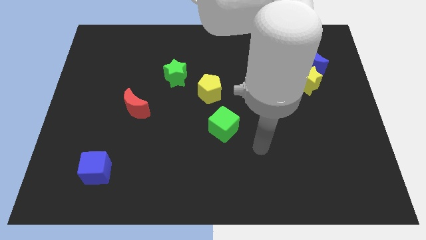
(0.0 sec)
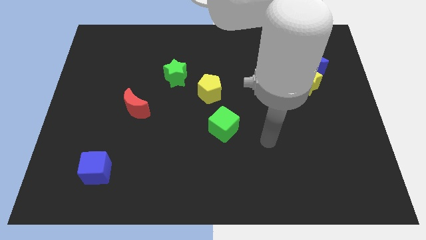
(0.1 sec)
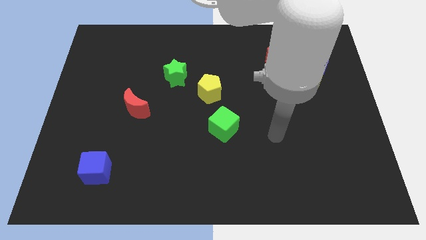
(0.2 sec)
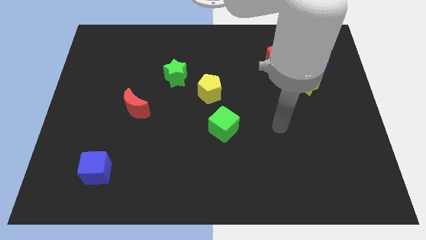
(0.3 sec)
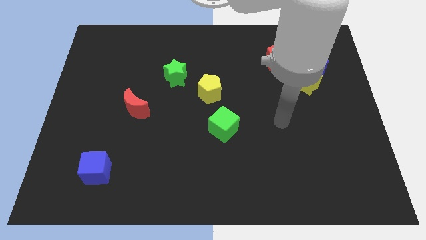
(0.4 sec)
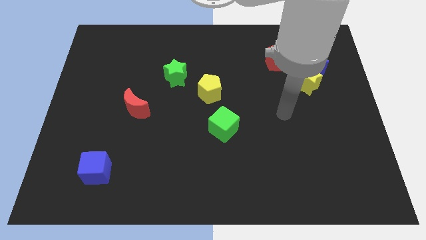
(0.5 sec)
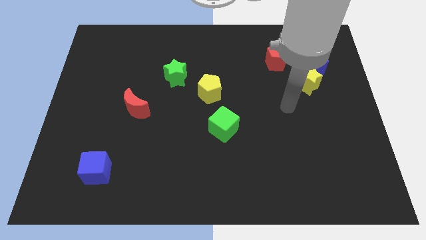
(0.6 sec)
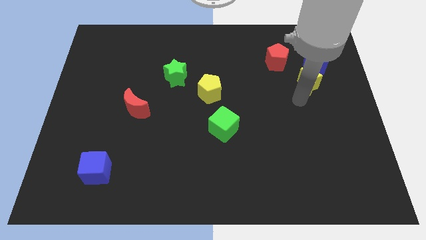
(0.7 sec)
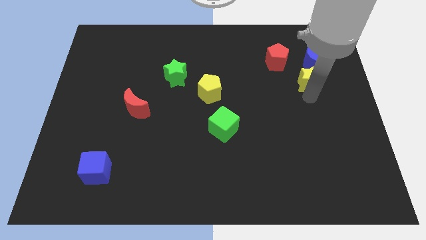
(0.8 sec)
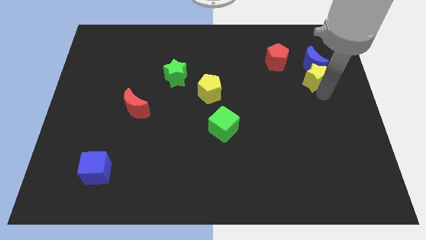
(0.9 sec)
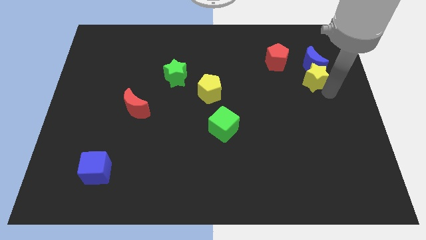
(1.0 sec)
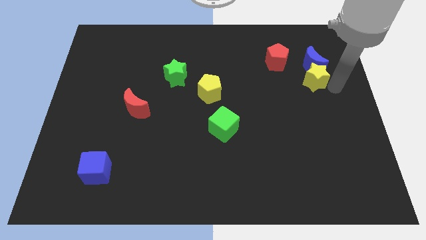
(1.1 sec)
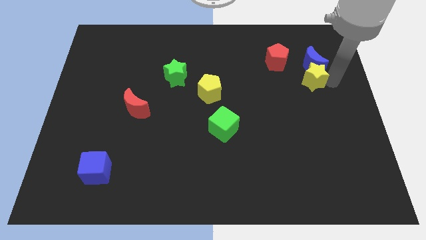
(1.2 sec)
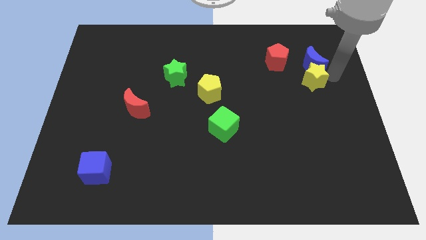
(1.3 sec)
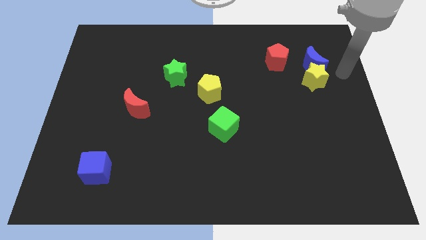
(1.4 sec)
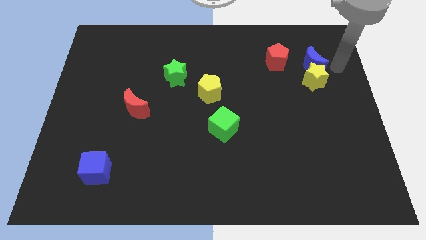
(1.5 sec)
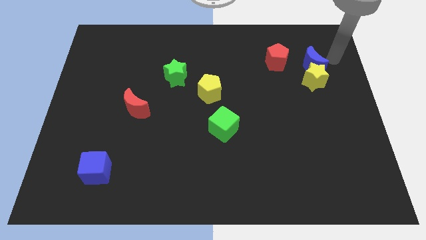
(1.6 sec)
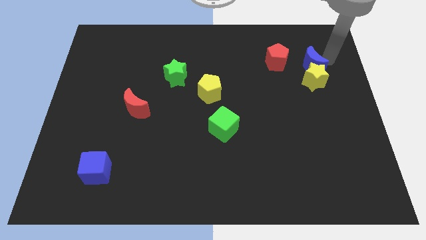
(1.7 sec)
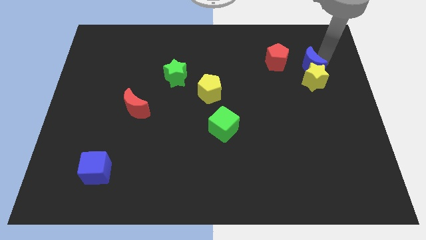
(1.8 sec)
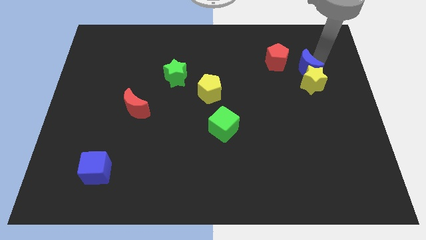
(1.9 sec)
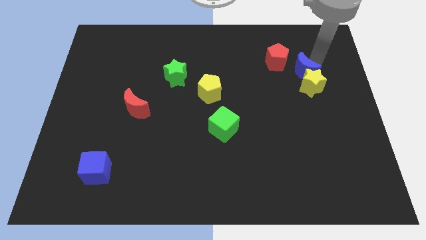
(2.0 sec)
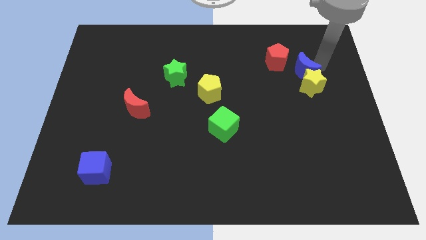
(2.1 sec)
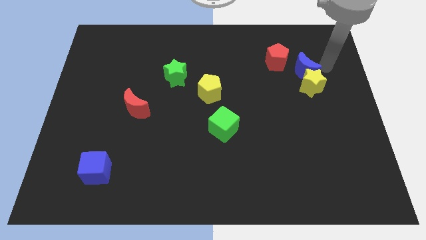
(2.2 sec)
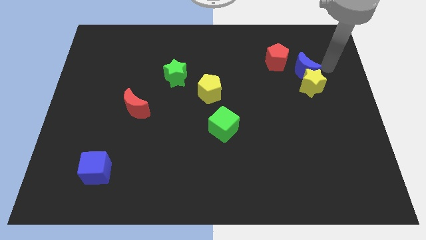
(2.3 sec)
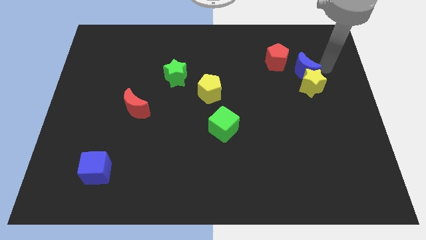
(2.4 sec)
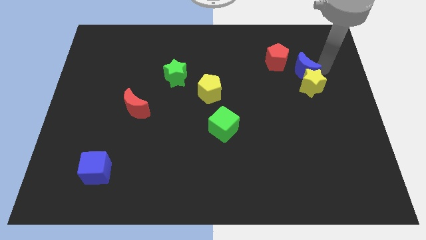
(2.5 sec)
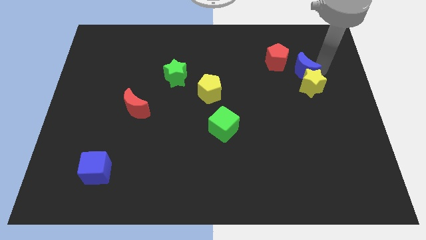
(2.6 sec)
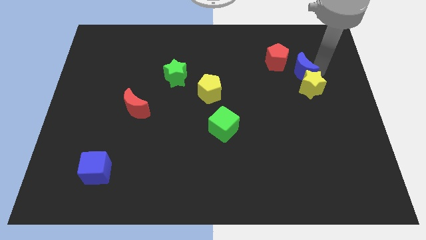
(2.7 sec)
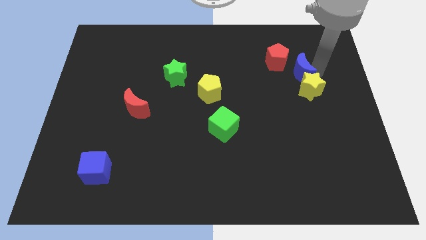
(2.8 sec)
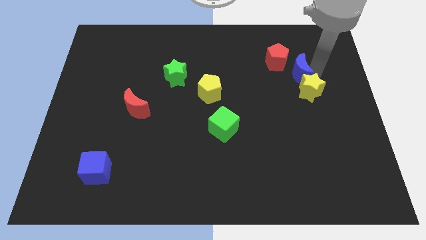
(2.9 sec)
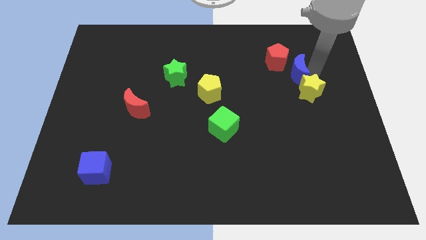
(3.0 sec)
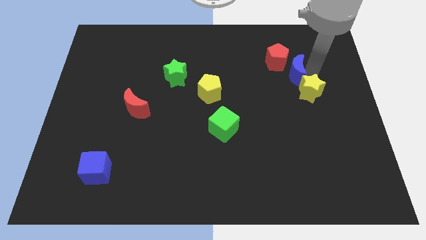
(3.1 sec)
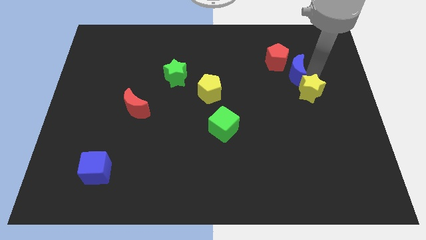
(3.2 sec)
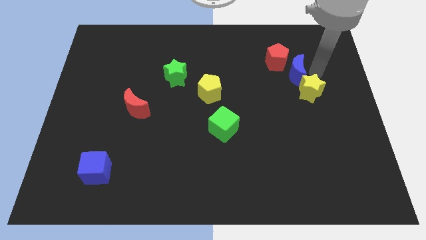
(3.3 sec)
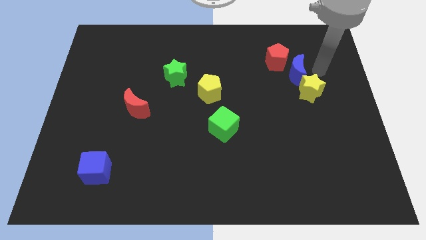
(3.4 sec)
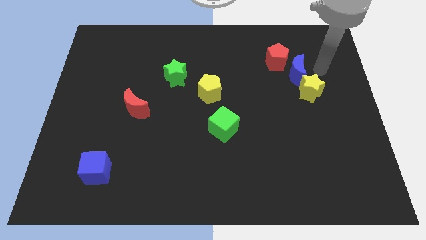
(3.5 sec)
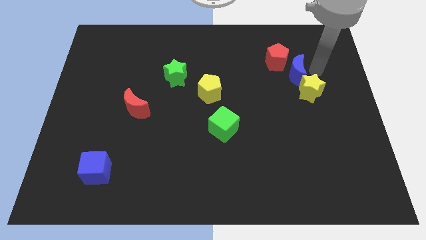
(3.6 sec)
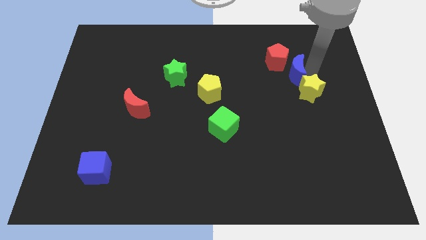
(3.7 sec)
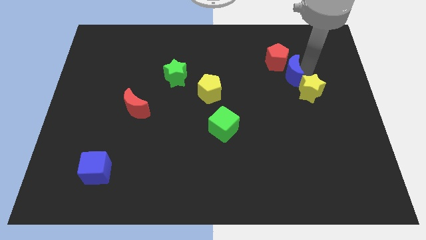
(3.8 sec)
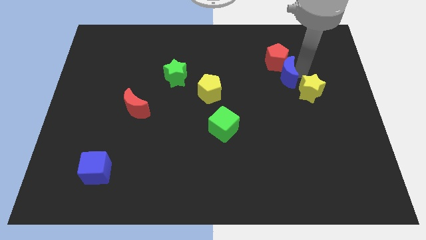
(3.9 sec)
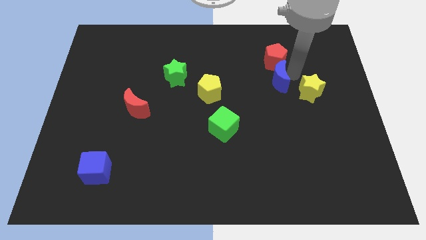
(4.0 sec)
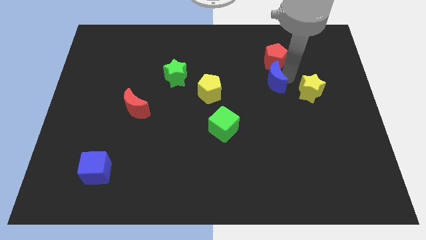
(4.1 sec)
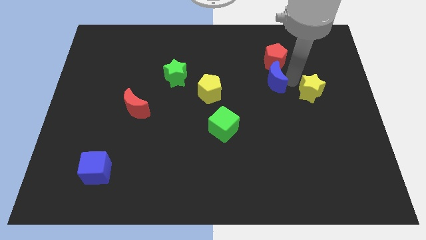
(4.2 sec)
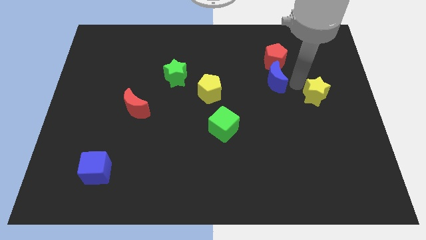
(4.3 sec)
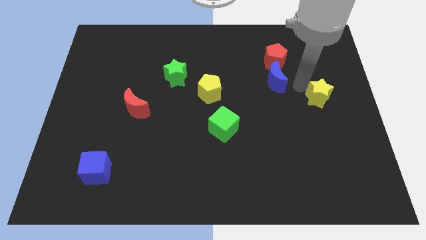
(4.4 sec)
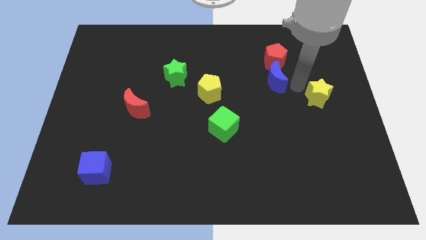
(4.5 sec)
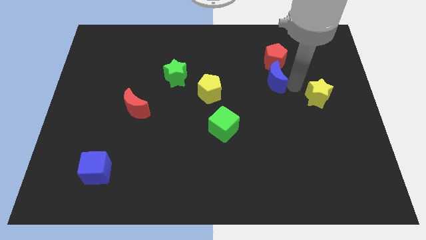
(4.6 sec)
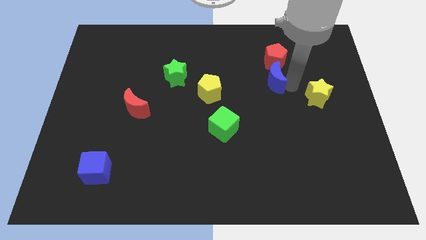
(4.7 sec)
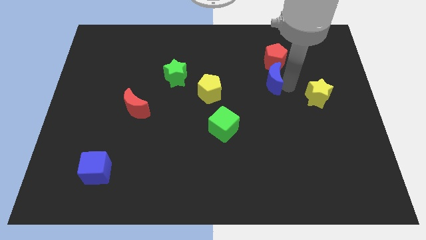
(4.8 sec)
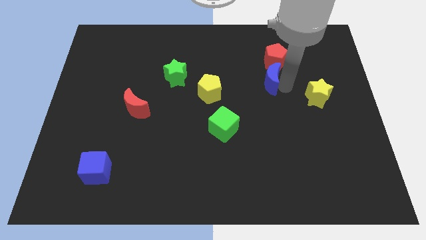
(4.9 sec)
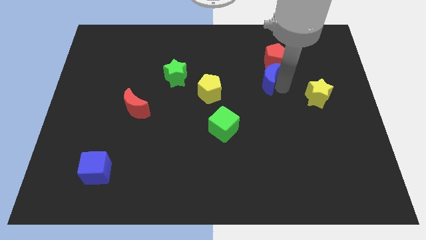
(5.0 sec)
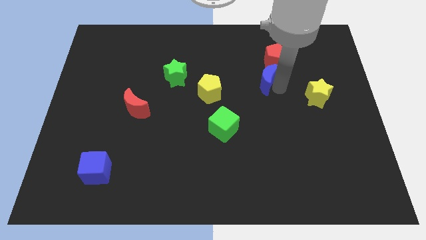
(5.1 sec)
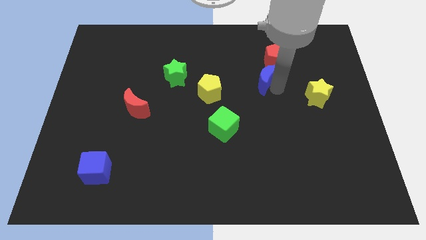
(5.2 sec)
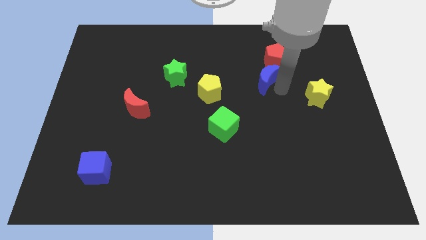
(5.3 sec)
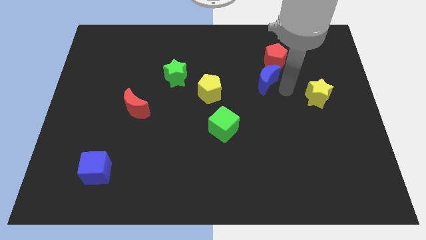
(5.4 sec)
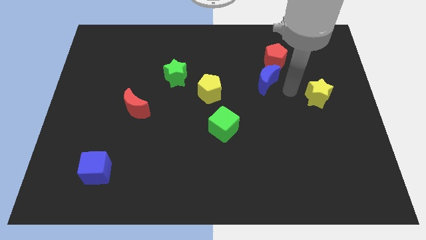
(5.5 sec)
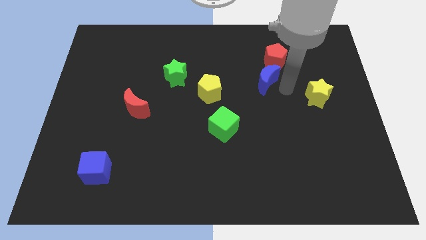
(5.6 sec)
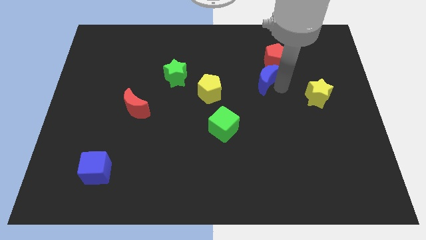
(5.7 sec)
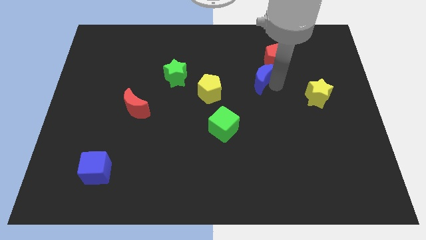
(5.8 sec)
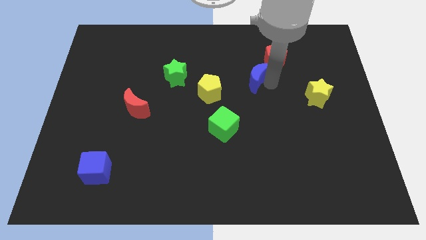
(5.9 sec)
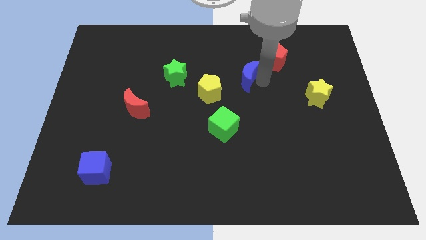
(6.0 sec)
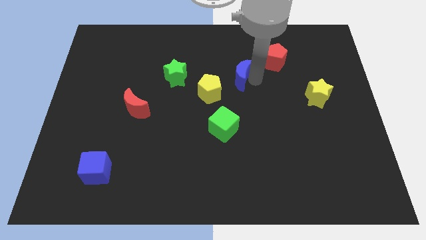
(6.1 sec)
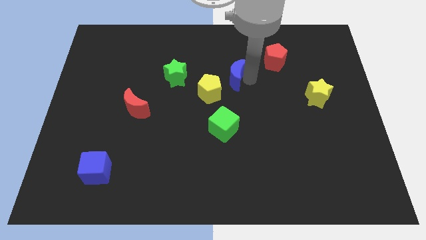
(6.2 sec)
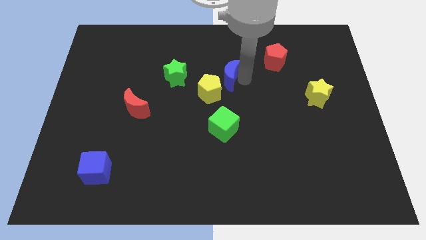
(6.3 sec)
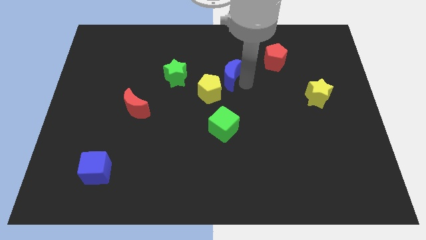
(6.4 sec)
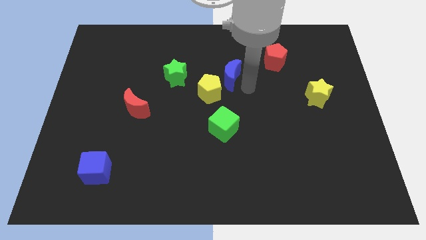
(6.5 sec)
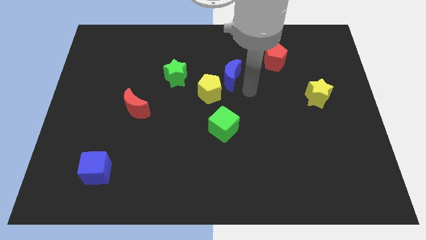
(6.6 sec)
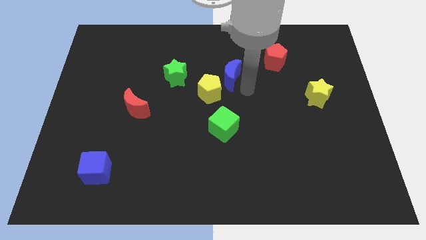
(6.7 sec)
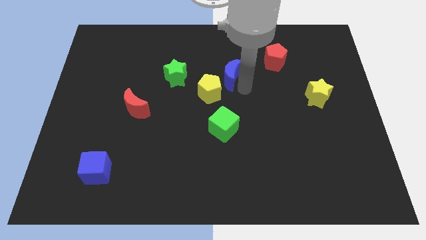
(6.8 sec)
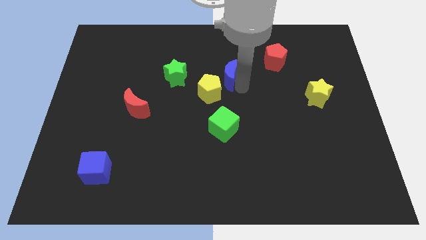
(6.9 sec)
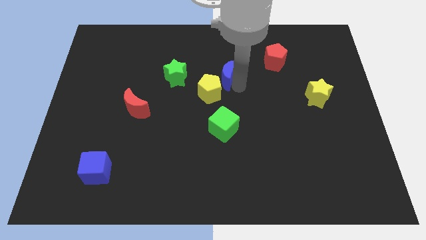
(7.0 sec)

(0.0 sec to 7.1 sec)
put the blue moon above the yellow pentagon

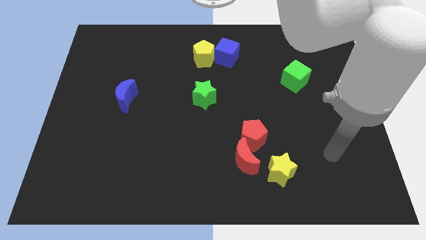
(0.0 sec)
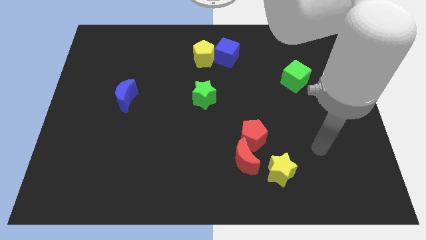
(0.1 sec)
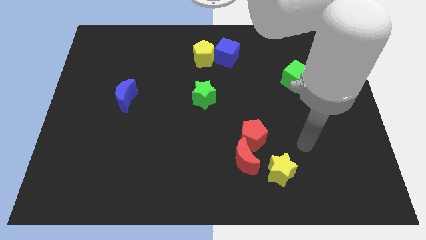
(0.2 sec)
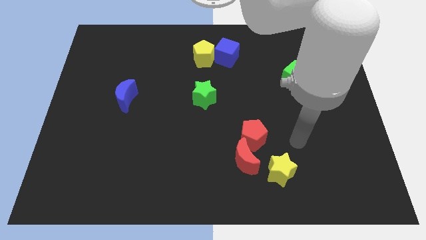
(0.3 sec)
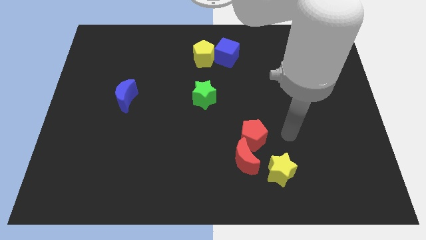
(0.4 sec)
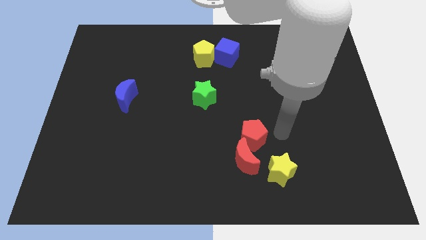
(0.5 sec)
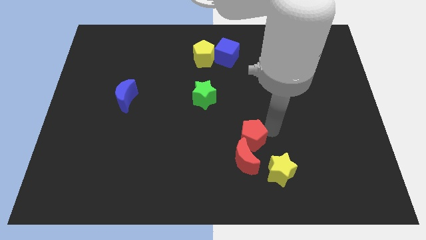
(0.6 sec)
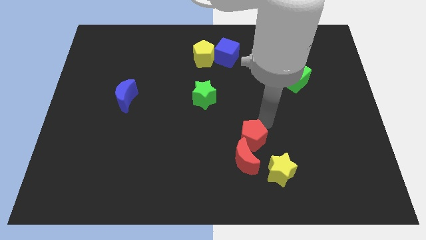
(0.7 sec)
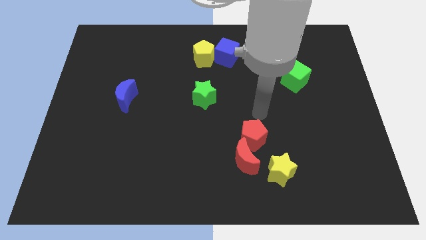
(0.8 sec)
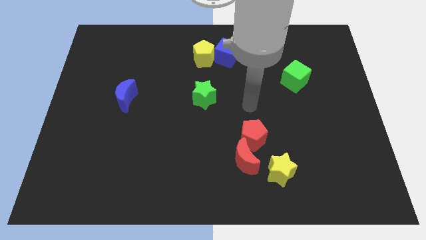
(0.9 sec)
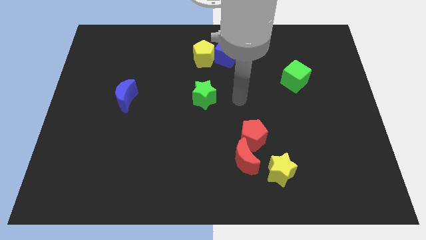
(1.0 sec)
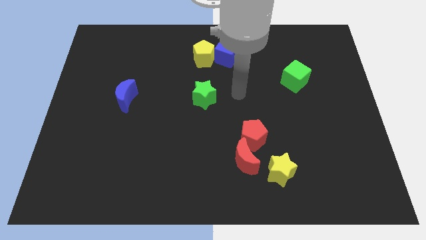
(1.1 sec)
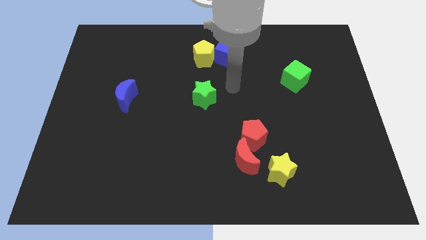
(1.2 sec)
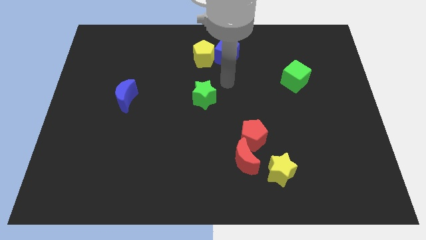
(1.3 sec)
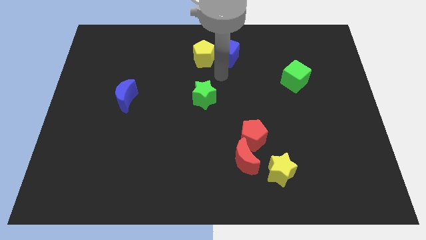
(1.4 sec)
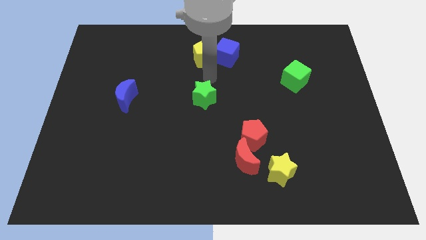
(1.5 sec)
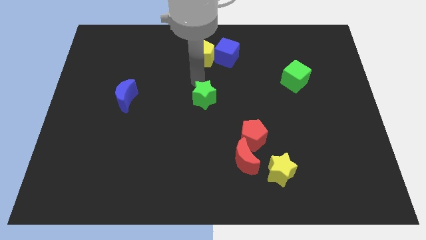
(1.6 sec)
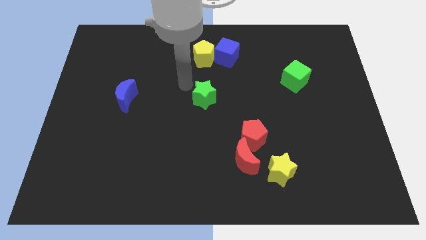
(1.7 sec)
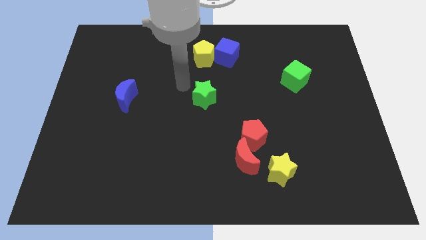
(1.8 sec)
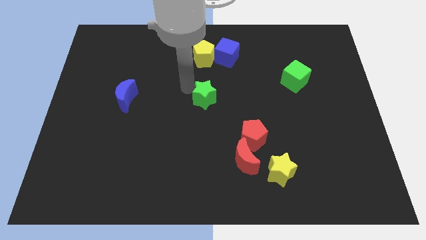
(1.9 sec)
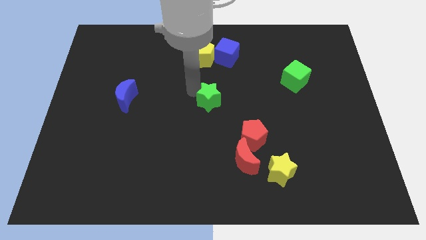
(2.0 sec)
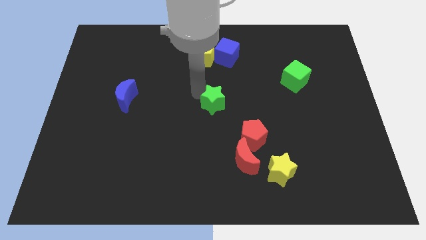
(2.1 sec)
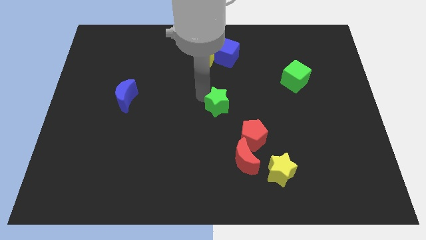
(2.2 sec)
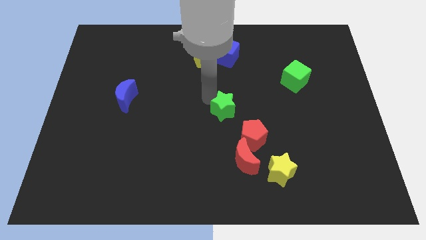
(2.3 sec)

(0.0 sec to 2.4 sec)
push the green star to the top of the red moon
